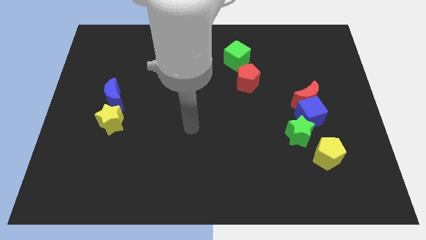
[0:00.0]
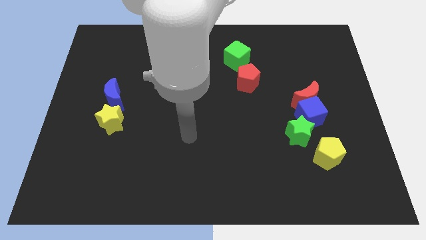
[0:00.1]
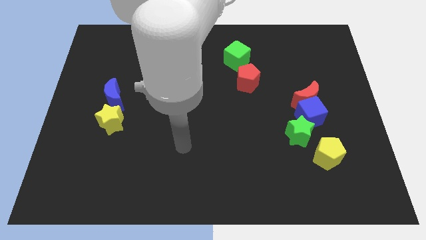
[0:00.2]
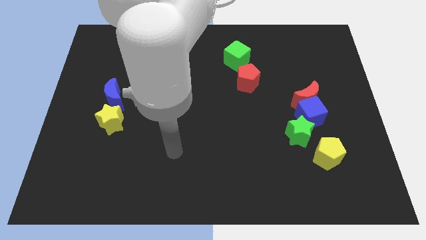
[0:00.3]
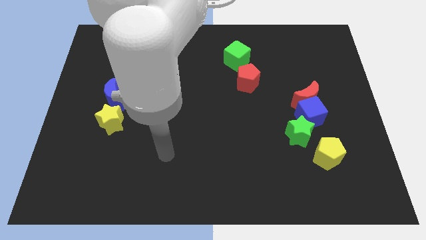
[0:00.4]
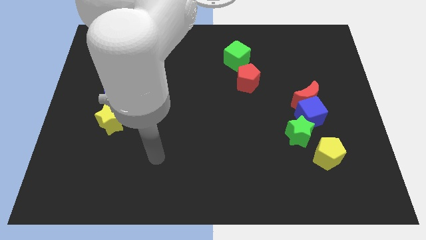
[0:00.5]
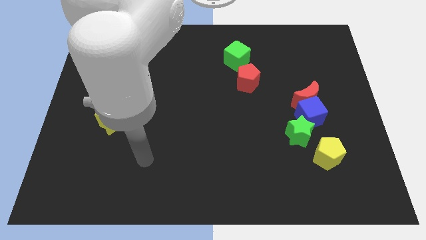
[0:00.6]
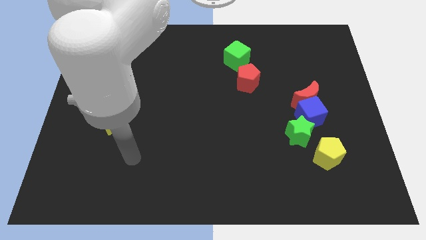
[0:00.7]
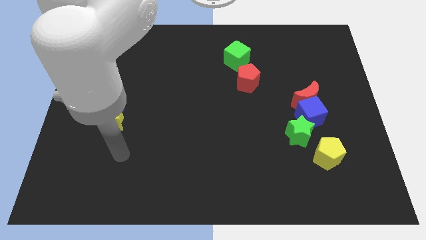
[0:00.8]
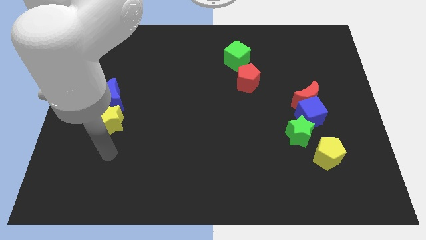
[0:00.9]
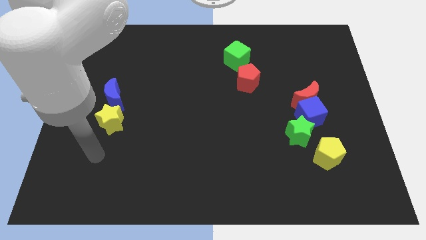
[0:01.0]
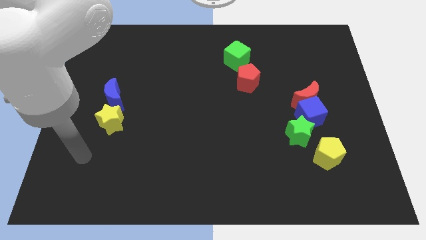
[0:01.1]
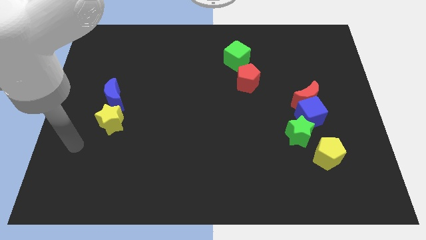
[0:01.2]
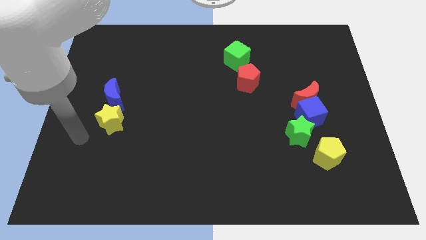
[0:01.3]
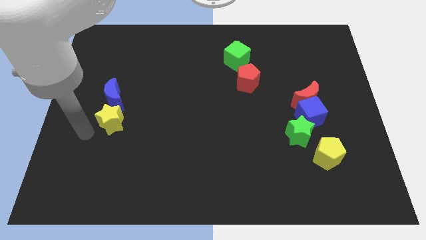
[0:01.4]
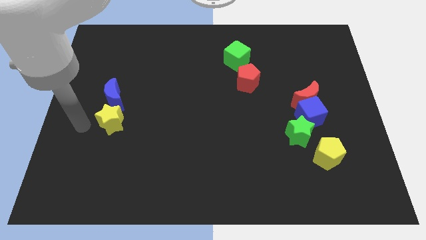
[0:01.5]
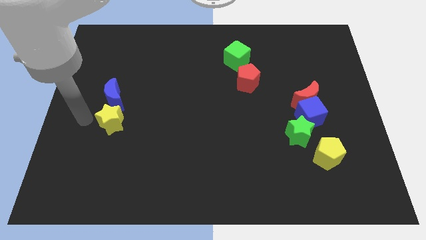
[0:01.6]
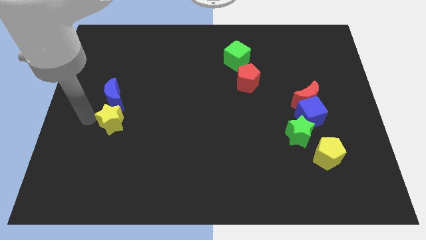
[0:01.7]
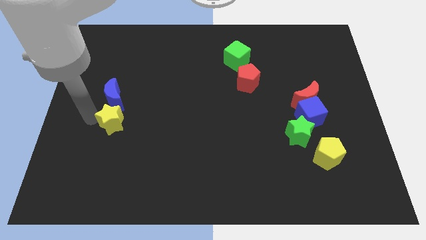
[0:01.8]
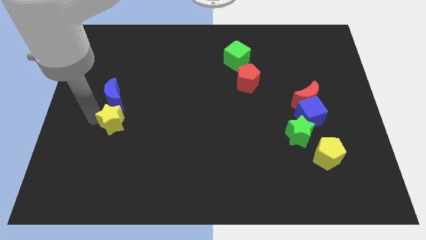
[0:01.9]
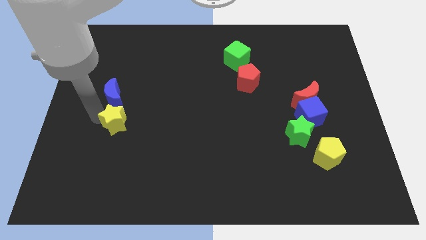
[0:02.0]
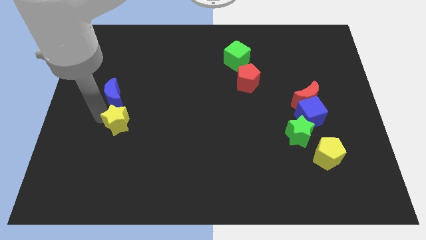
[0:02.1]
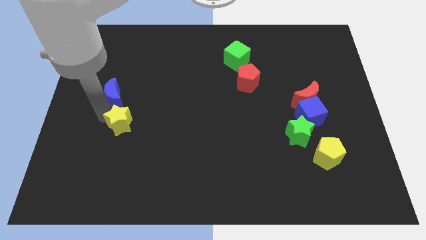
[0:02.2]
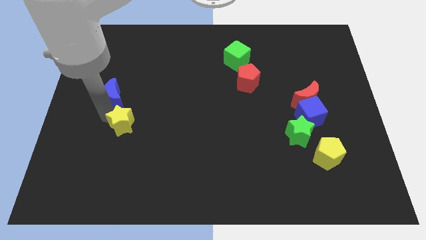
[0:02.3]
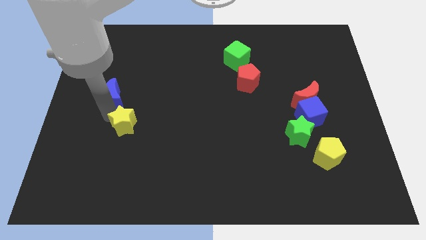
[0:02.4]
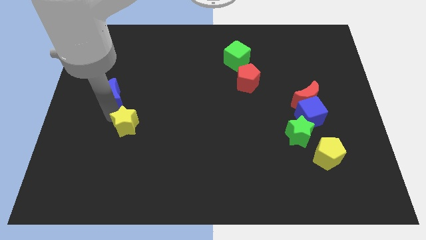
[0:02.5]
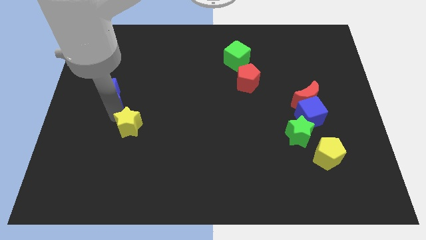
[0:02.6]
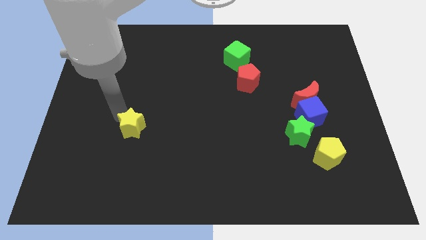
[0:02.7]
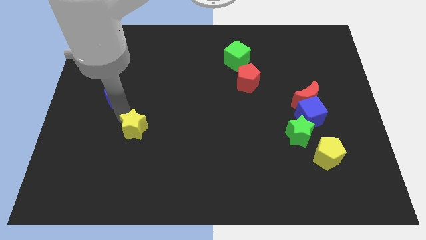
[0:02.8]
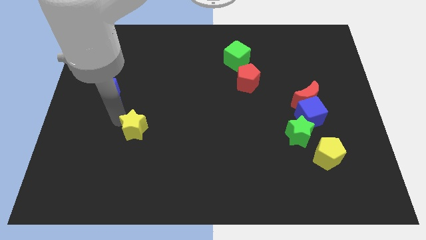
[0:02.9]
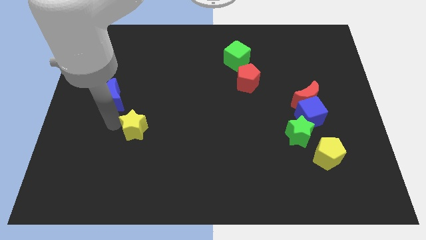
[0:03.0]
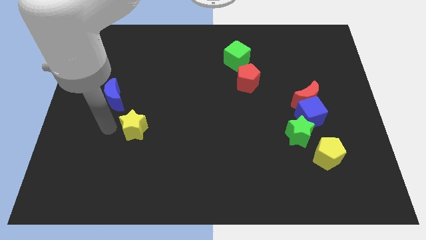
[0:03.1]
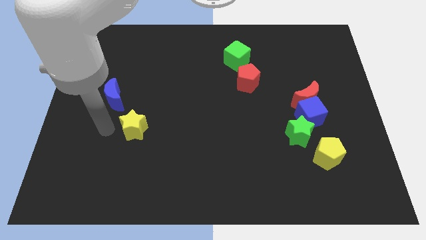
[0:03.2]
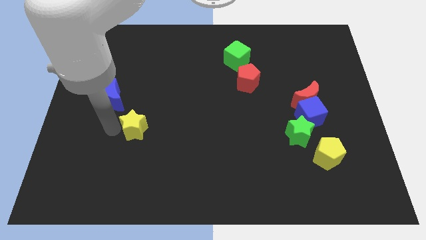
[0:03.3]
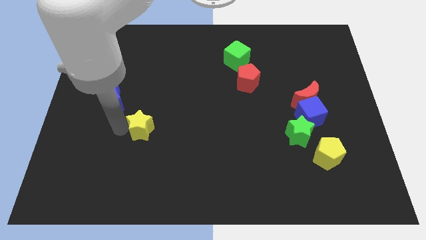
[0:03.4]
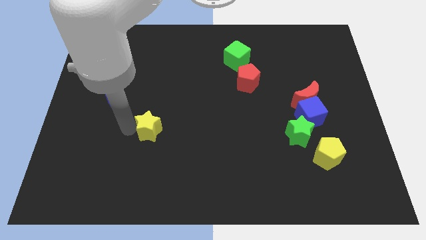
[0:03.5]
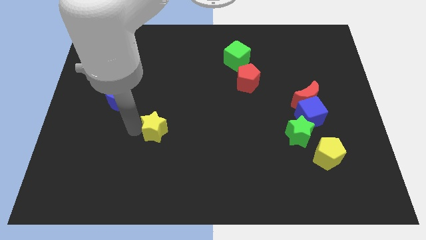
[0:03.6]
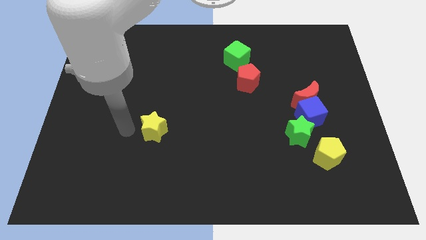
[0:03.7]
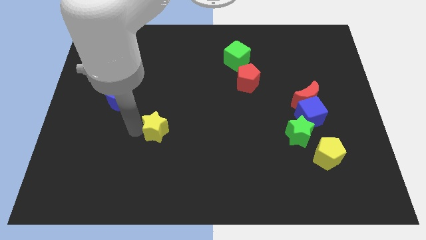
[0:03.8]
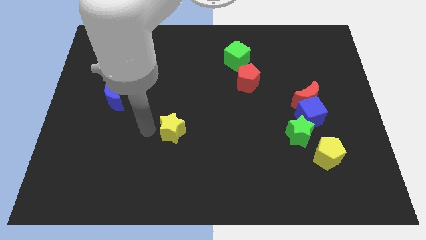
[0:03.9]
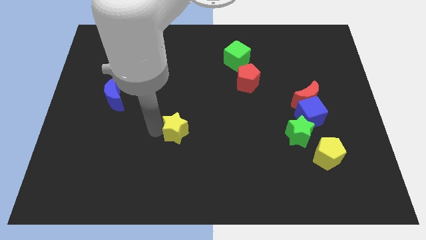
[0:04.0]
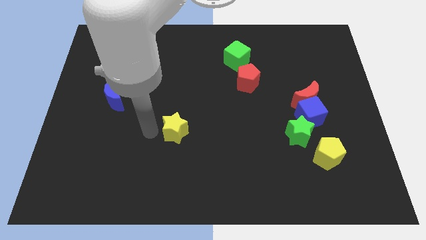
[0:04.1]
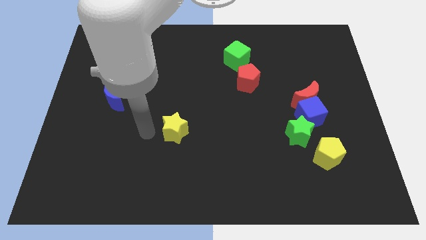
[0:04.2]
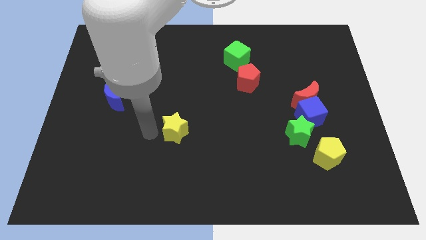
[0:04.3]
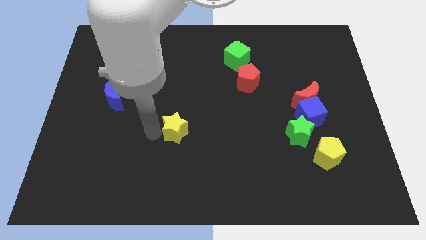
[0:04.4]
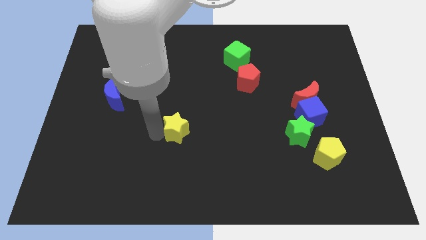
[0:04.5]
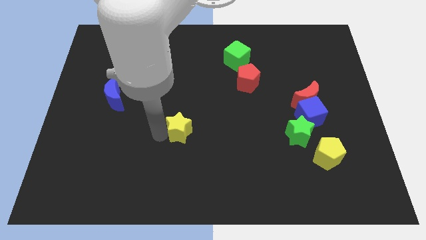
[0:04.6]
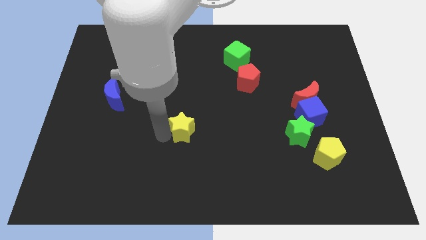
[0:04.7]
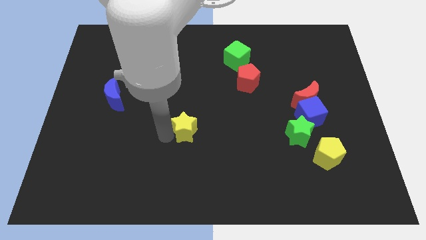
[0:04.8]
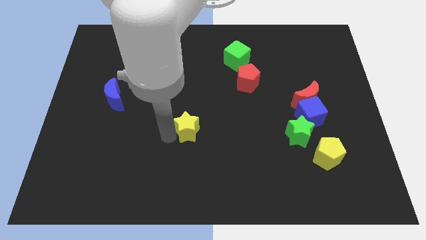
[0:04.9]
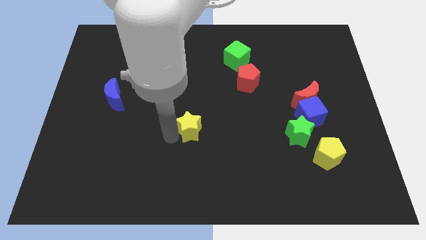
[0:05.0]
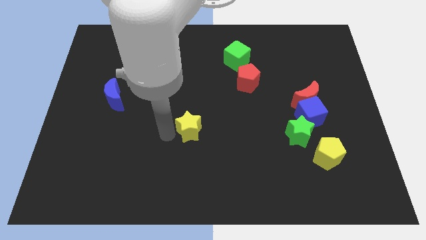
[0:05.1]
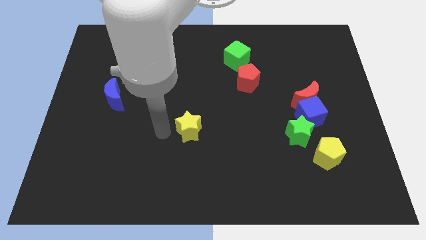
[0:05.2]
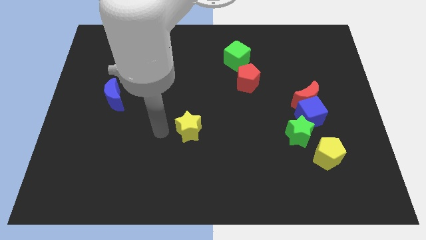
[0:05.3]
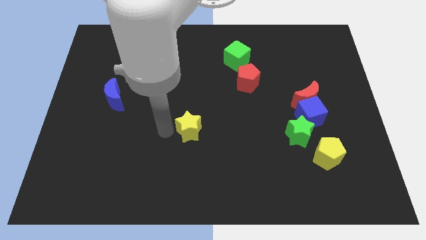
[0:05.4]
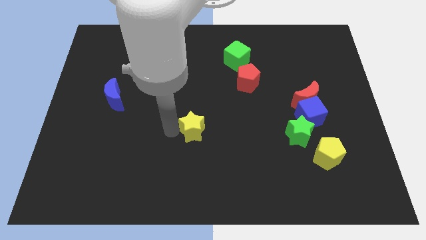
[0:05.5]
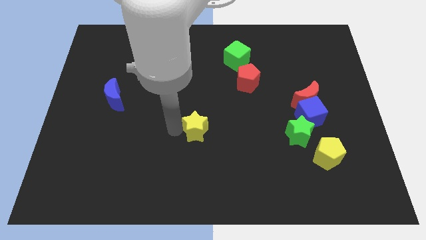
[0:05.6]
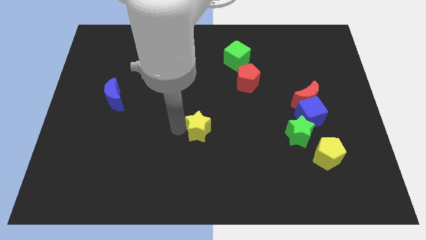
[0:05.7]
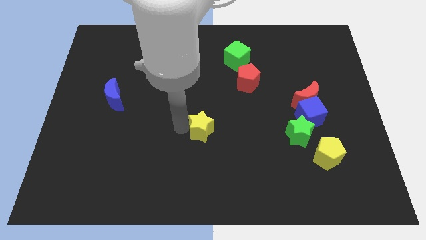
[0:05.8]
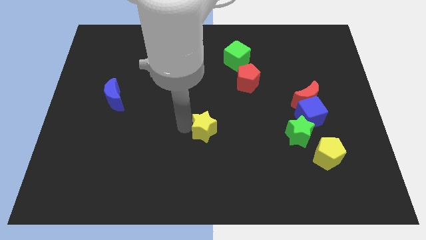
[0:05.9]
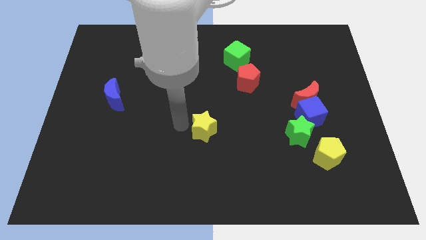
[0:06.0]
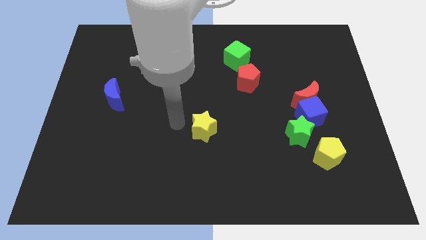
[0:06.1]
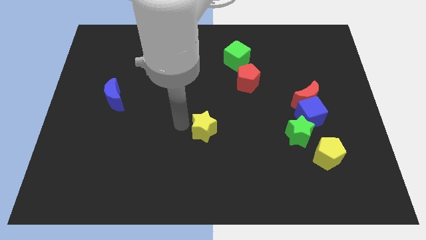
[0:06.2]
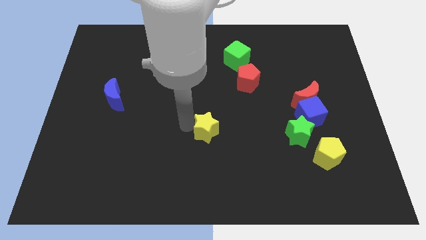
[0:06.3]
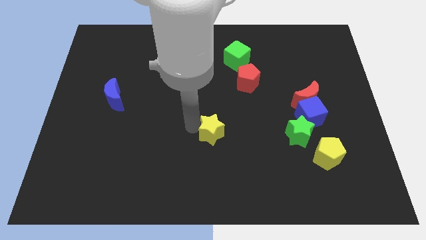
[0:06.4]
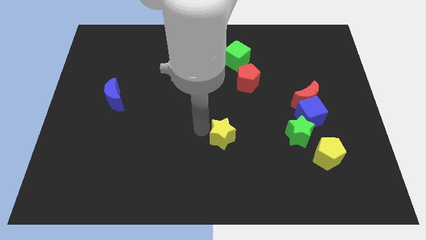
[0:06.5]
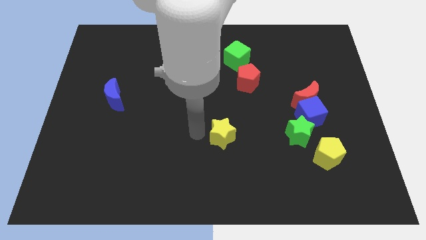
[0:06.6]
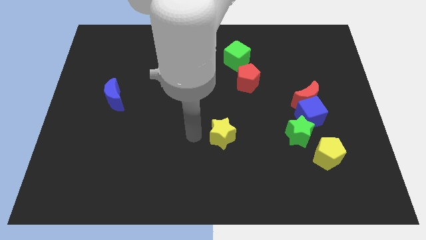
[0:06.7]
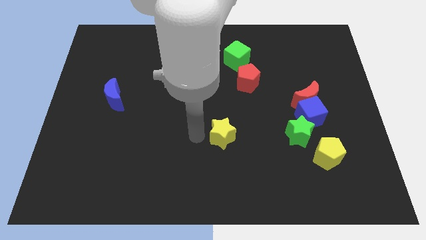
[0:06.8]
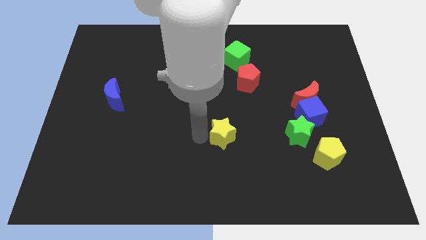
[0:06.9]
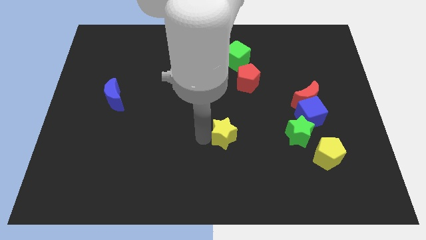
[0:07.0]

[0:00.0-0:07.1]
push the yellow star to the left side of the green star
